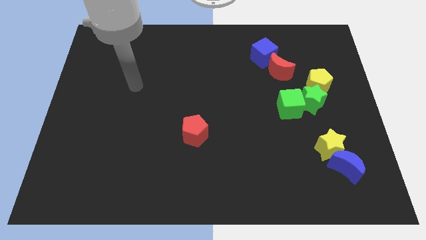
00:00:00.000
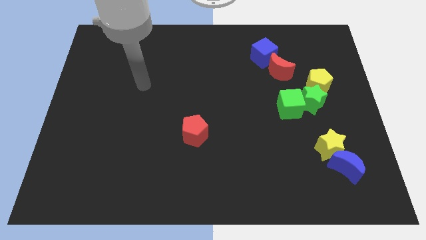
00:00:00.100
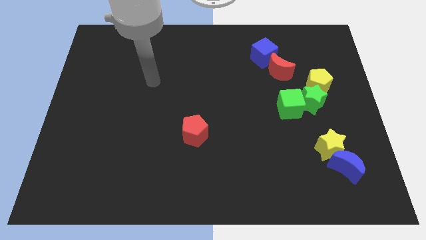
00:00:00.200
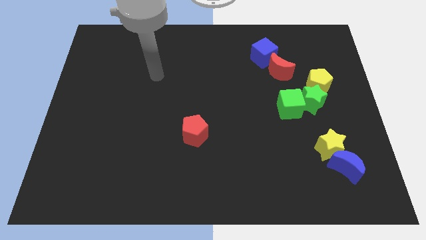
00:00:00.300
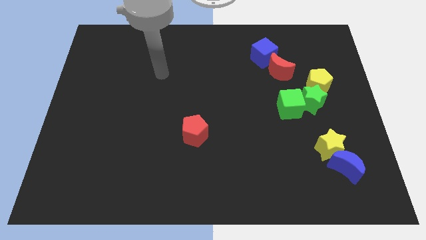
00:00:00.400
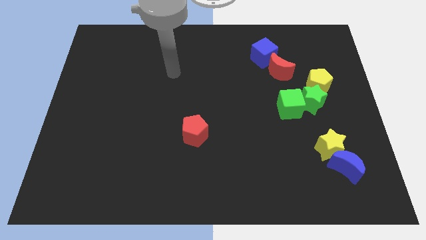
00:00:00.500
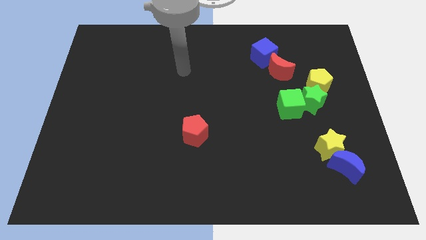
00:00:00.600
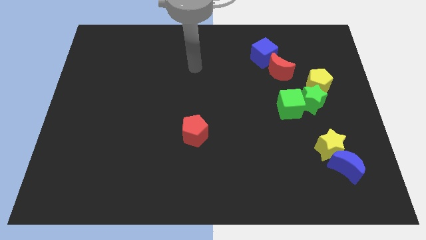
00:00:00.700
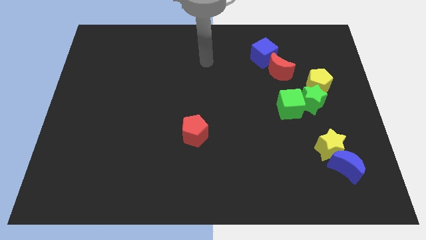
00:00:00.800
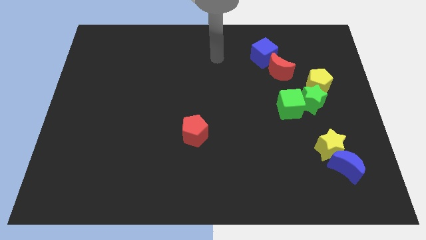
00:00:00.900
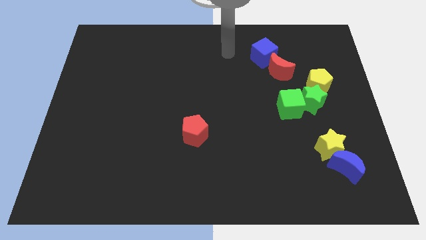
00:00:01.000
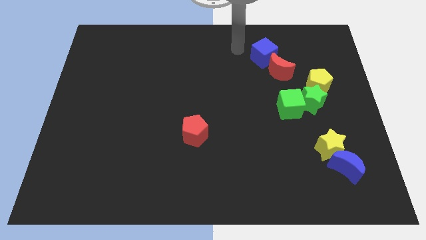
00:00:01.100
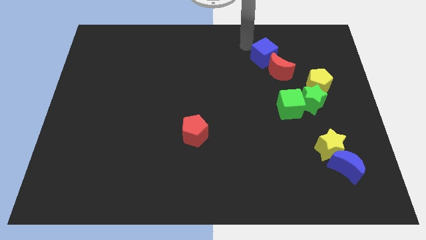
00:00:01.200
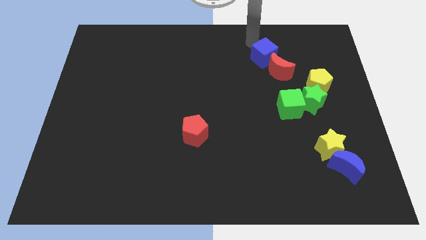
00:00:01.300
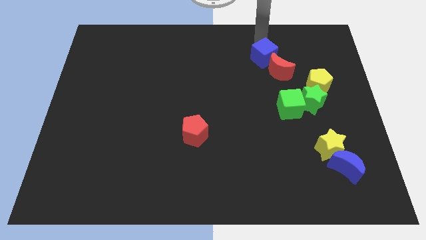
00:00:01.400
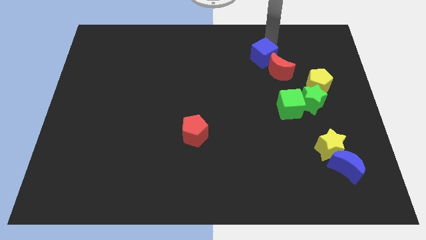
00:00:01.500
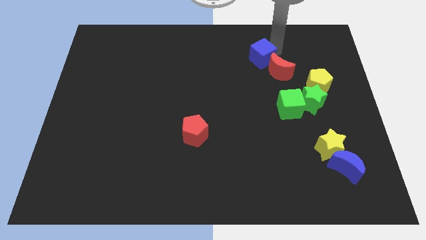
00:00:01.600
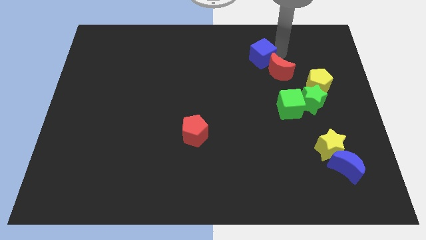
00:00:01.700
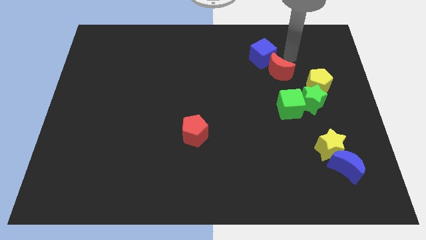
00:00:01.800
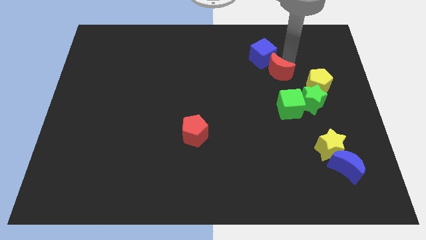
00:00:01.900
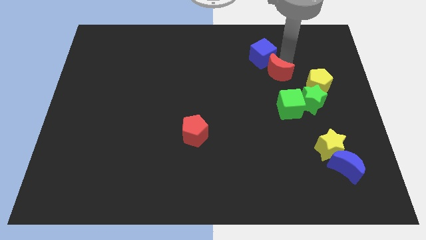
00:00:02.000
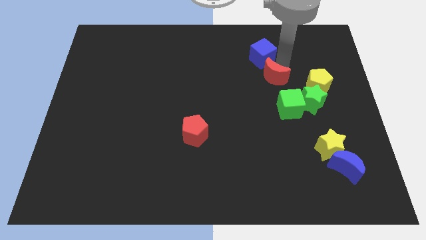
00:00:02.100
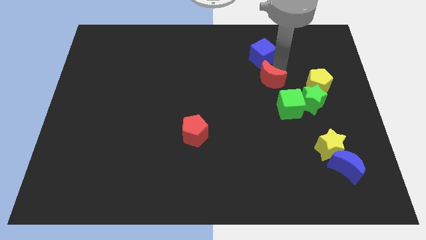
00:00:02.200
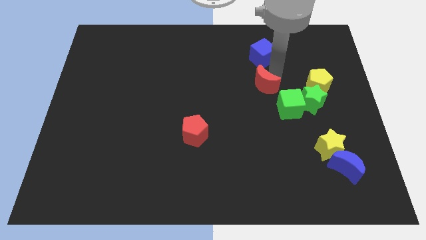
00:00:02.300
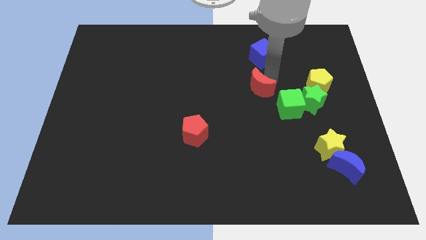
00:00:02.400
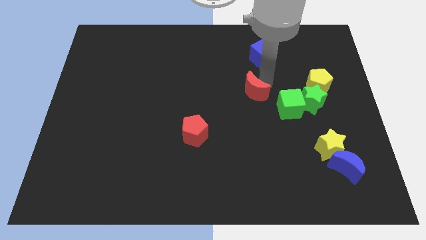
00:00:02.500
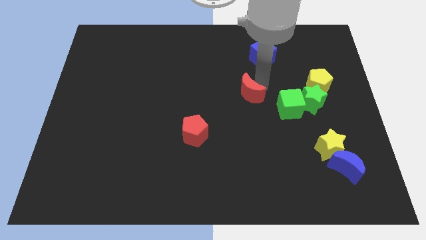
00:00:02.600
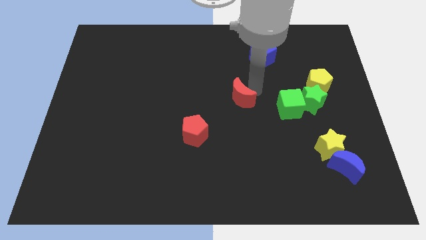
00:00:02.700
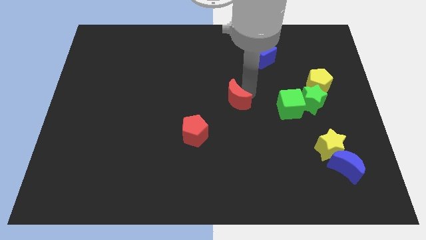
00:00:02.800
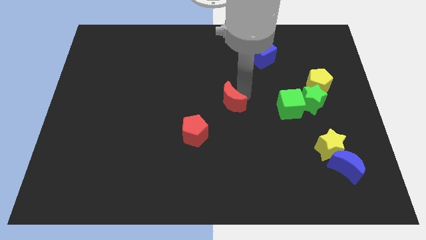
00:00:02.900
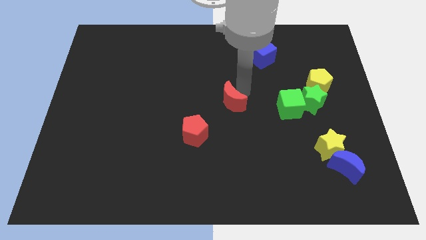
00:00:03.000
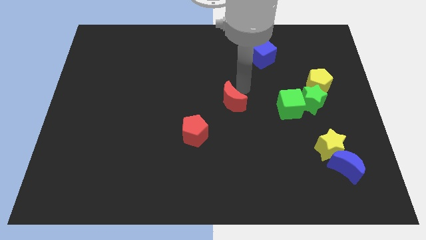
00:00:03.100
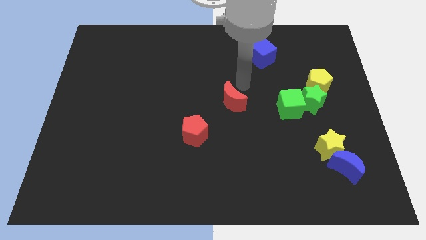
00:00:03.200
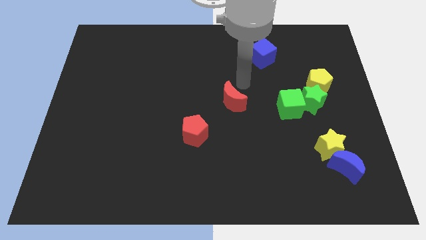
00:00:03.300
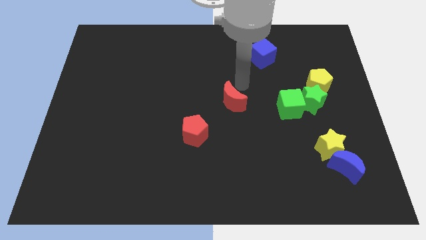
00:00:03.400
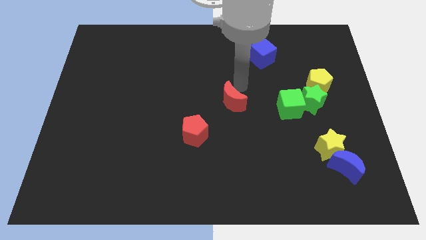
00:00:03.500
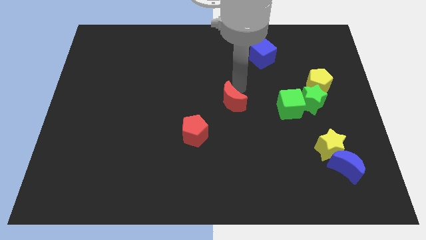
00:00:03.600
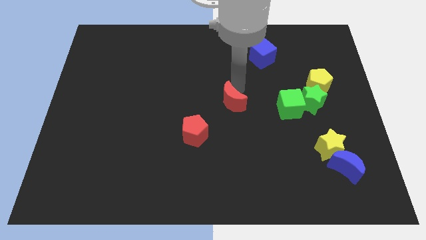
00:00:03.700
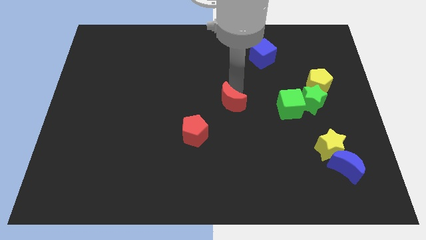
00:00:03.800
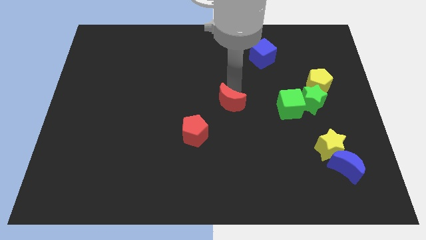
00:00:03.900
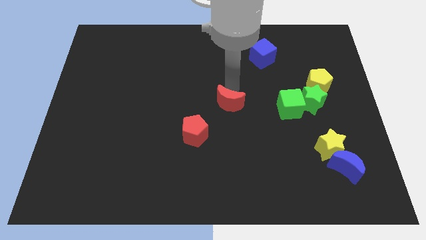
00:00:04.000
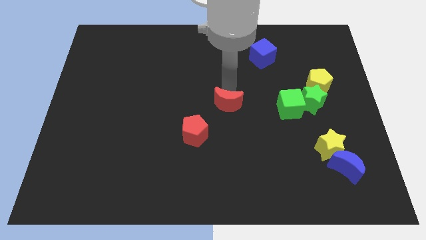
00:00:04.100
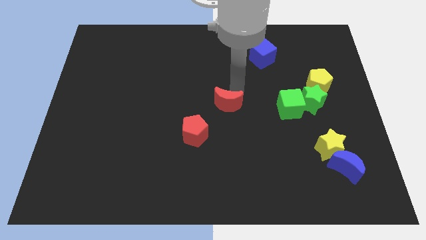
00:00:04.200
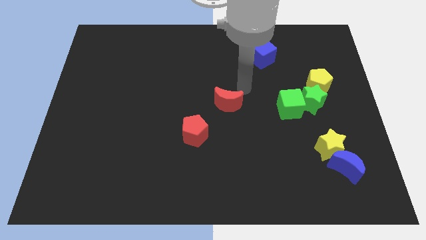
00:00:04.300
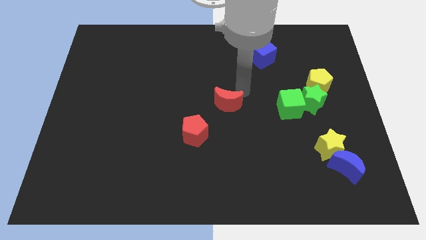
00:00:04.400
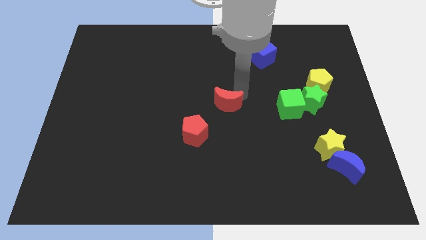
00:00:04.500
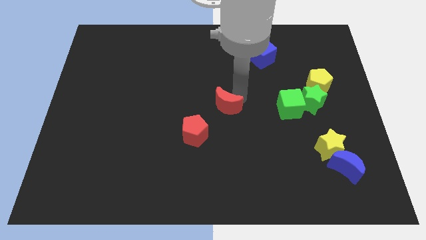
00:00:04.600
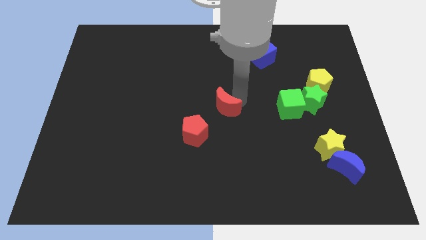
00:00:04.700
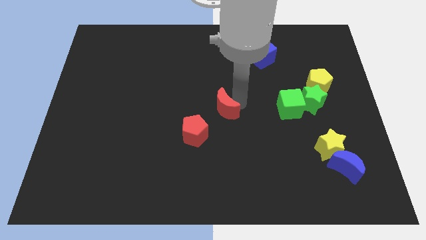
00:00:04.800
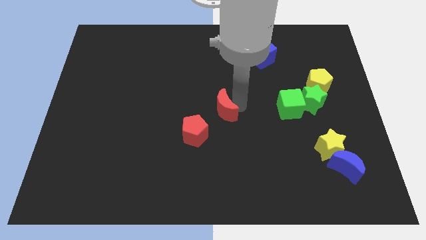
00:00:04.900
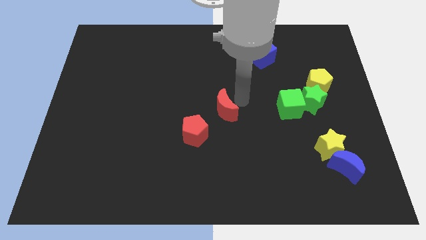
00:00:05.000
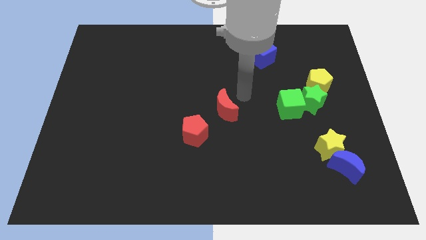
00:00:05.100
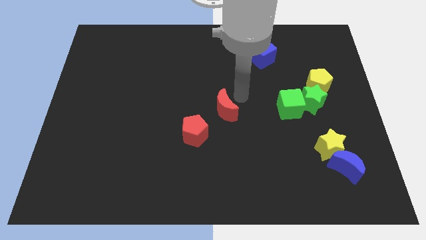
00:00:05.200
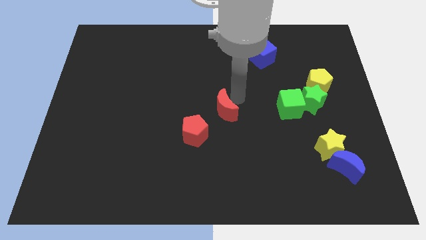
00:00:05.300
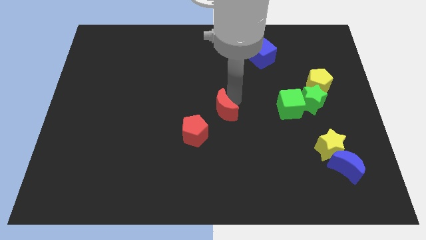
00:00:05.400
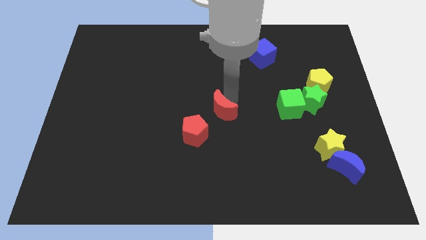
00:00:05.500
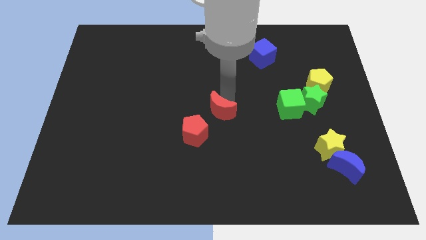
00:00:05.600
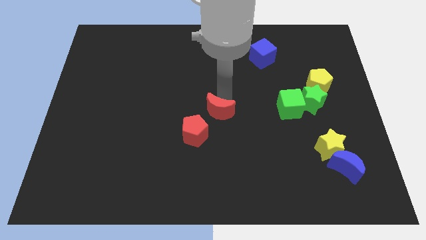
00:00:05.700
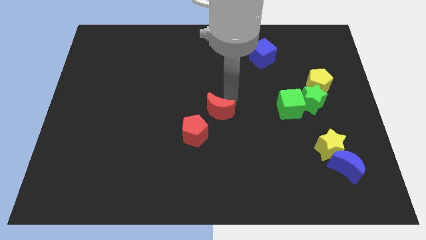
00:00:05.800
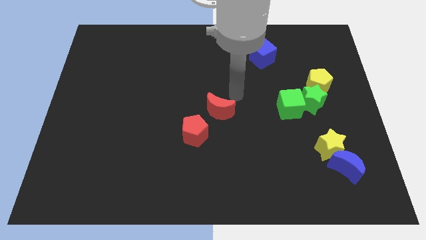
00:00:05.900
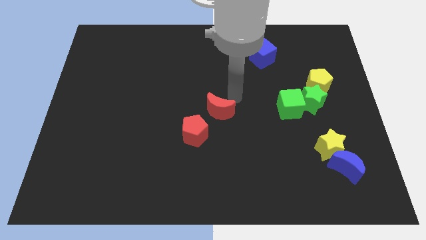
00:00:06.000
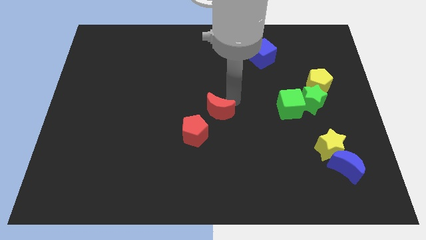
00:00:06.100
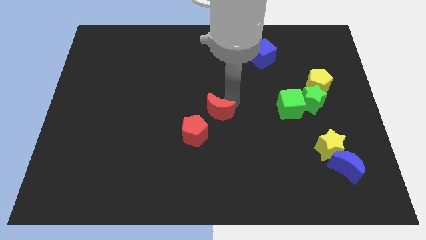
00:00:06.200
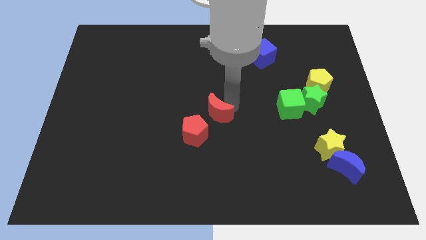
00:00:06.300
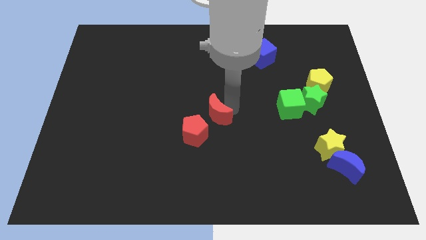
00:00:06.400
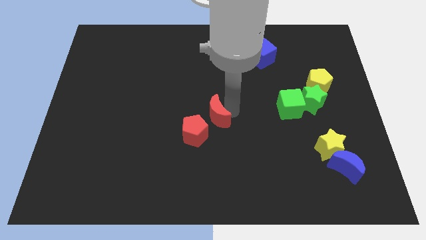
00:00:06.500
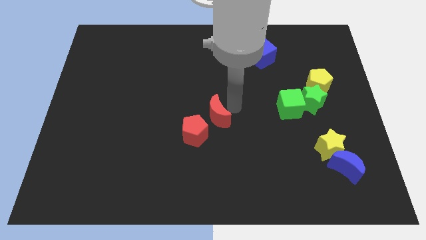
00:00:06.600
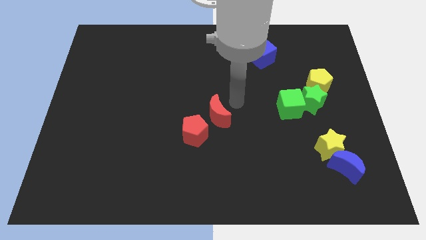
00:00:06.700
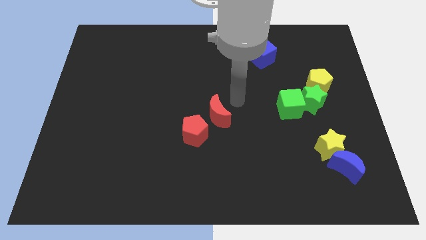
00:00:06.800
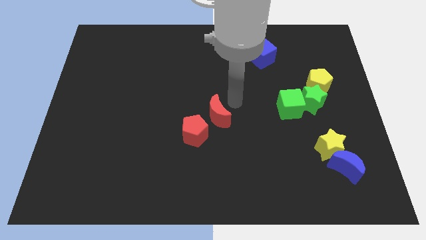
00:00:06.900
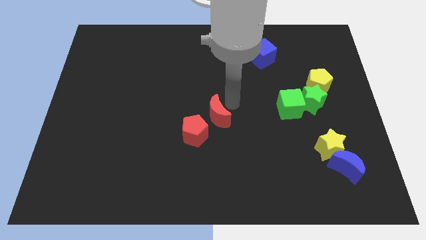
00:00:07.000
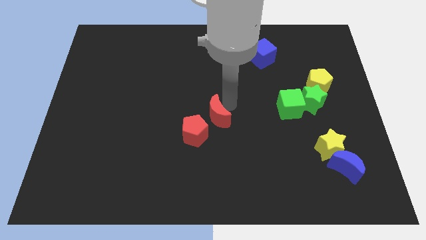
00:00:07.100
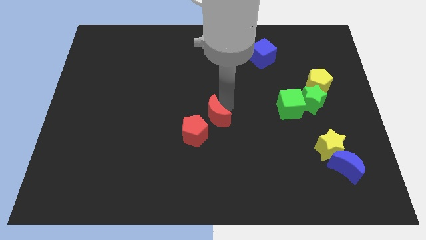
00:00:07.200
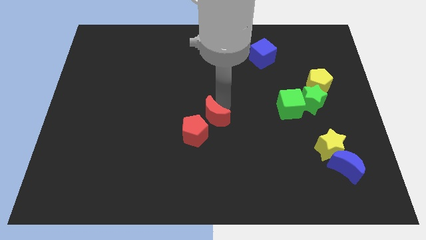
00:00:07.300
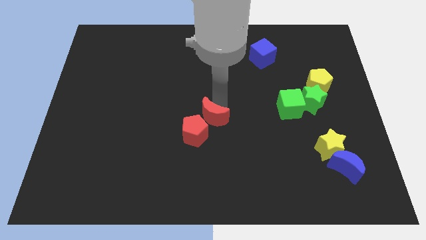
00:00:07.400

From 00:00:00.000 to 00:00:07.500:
push the red moon next to the red pentagon

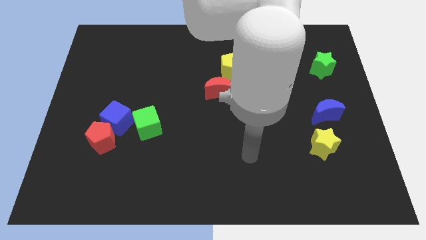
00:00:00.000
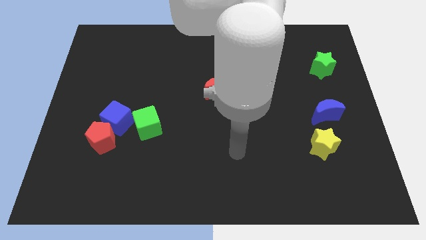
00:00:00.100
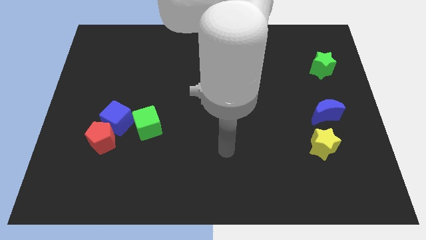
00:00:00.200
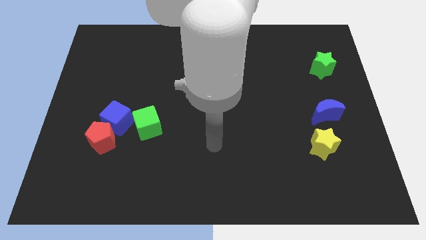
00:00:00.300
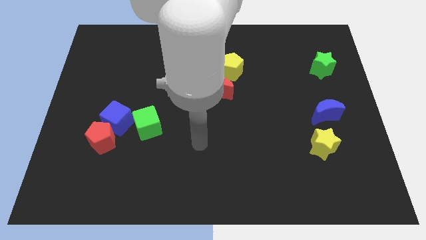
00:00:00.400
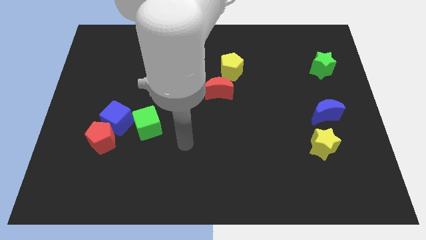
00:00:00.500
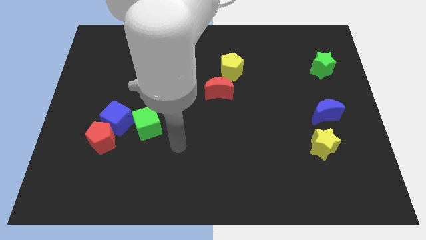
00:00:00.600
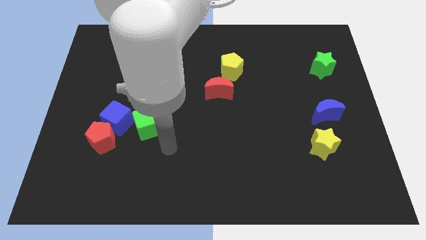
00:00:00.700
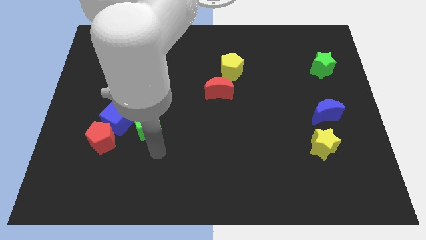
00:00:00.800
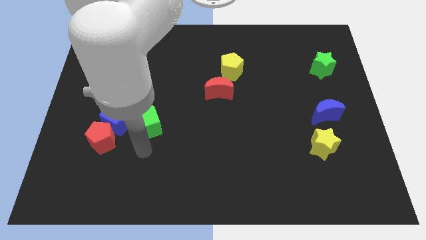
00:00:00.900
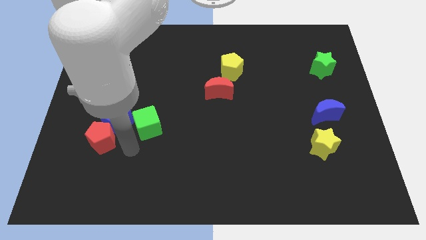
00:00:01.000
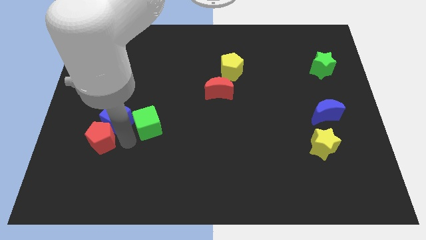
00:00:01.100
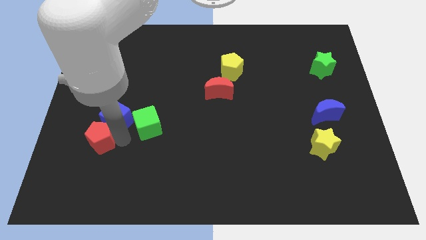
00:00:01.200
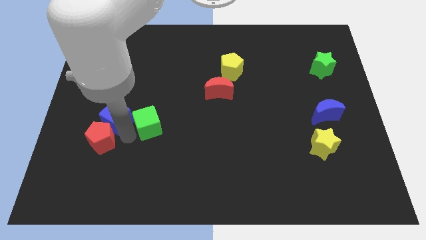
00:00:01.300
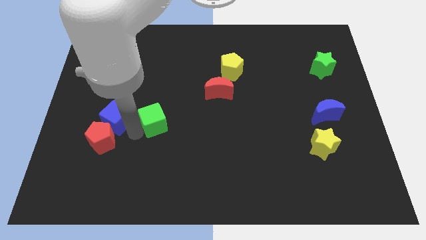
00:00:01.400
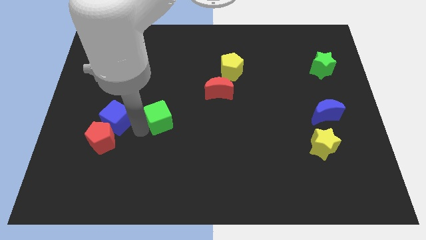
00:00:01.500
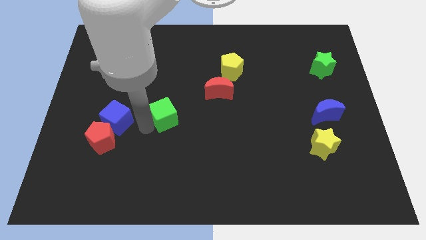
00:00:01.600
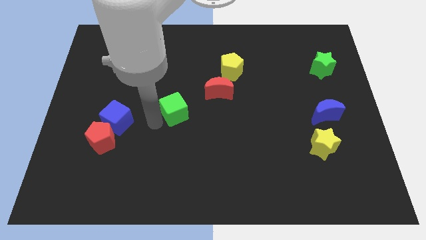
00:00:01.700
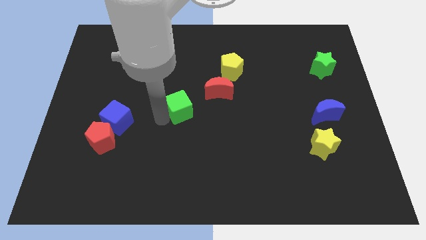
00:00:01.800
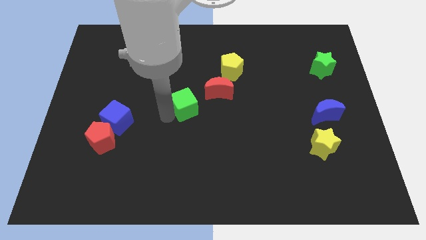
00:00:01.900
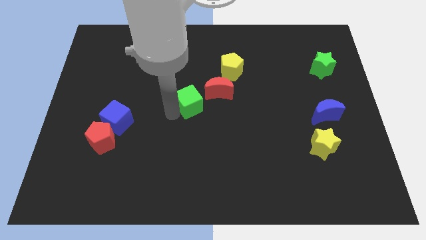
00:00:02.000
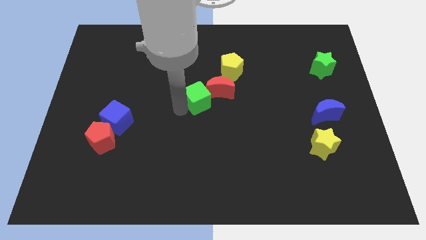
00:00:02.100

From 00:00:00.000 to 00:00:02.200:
put the green cube towards the red moon
